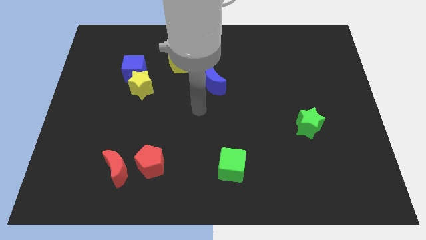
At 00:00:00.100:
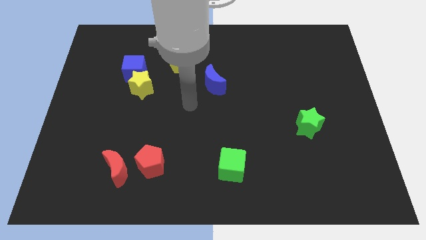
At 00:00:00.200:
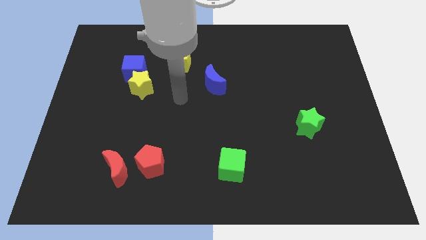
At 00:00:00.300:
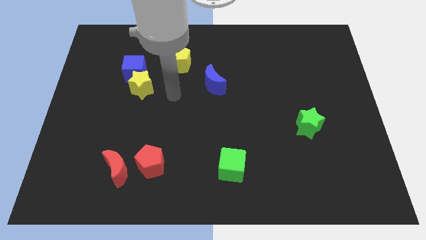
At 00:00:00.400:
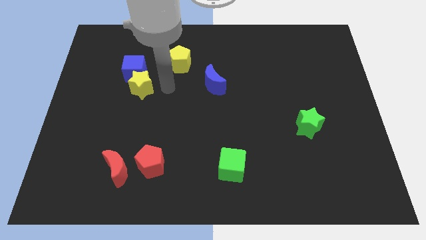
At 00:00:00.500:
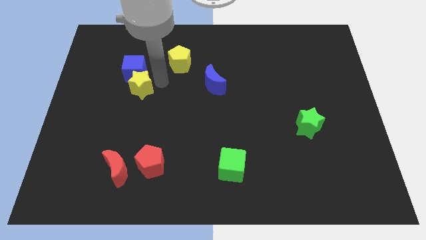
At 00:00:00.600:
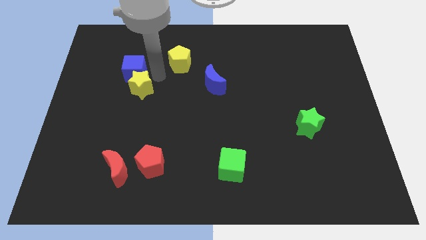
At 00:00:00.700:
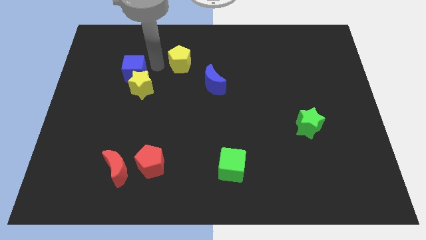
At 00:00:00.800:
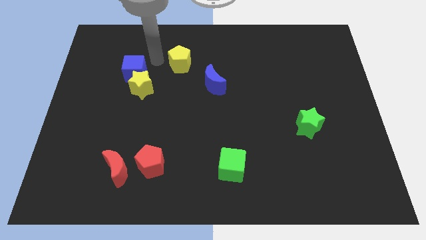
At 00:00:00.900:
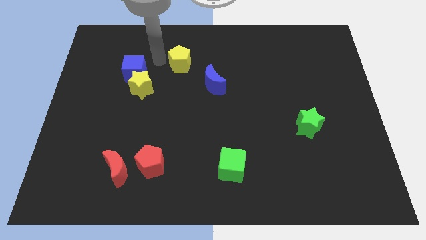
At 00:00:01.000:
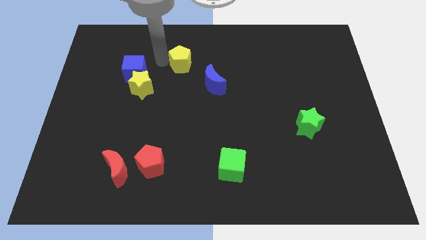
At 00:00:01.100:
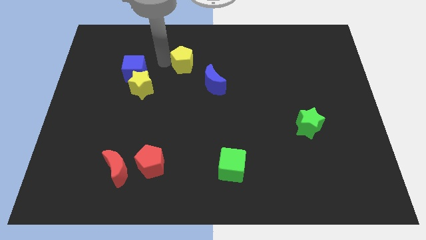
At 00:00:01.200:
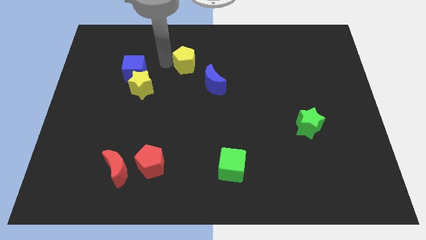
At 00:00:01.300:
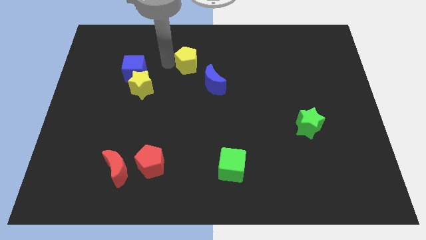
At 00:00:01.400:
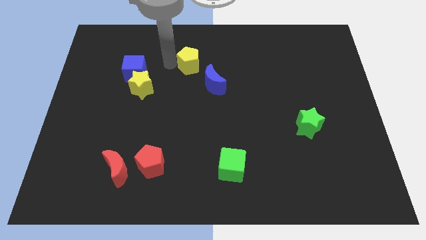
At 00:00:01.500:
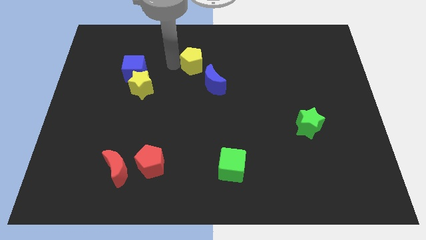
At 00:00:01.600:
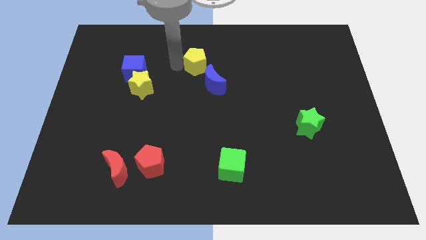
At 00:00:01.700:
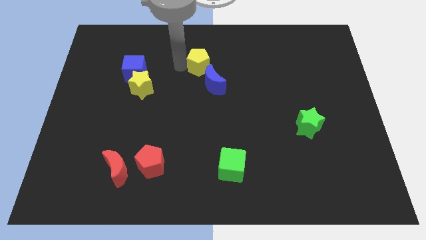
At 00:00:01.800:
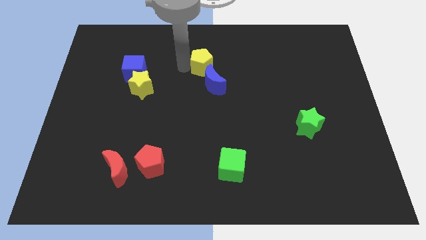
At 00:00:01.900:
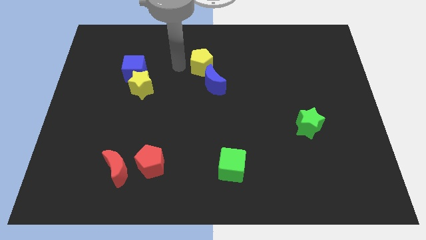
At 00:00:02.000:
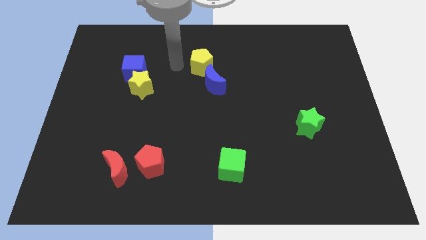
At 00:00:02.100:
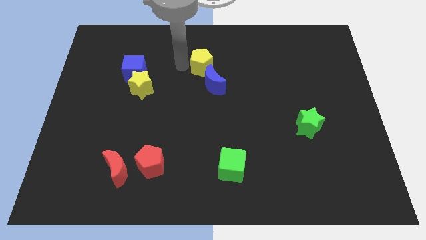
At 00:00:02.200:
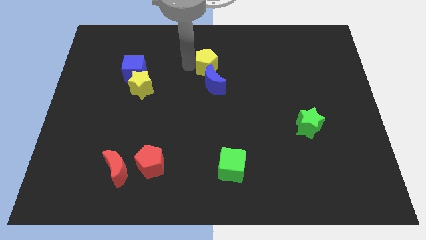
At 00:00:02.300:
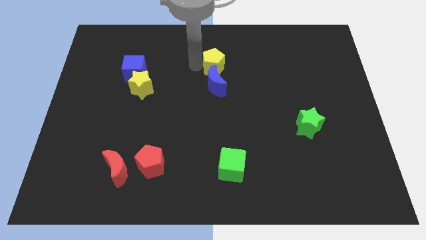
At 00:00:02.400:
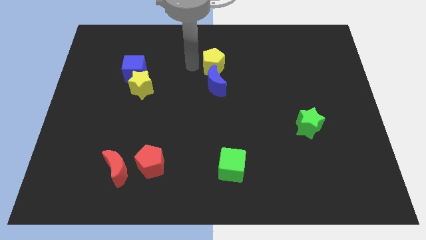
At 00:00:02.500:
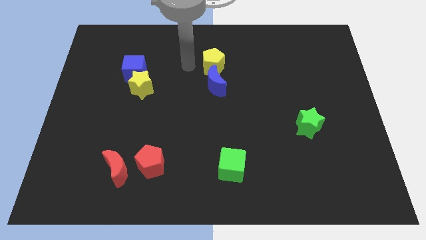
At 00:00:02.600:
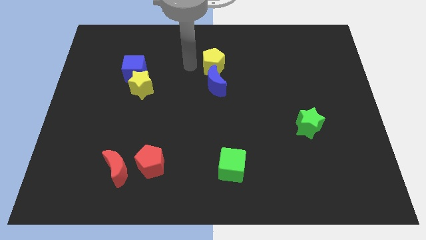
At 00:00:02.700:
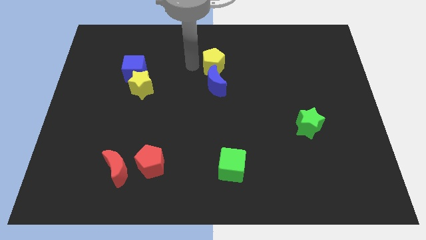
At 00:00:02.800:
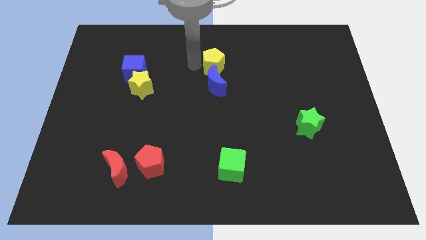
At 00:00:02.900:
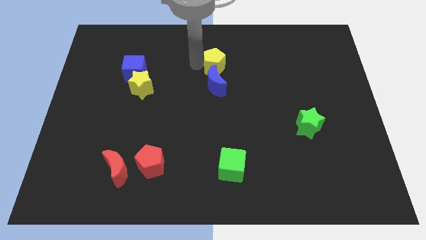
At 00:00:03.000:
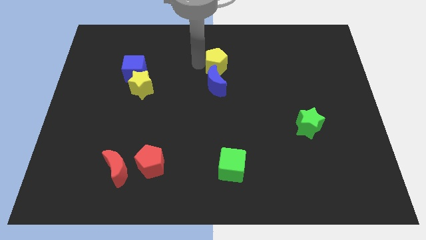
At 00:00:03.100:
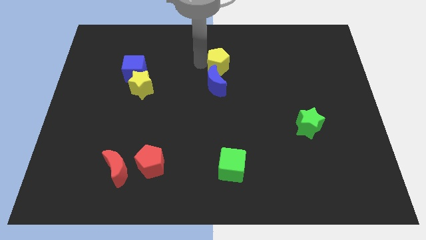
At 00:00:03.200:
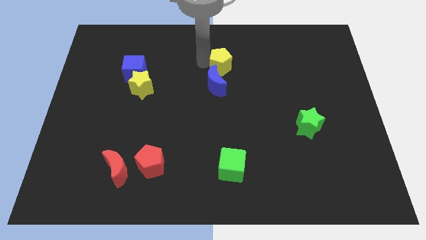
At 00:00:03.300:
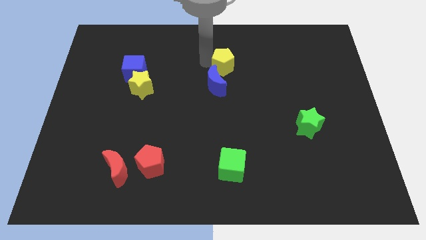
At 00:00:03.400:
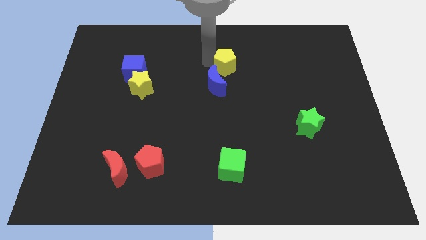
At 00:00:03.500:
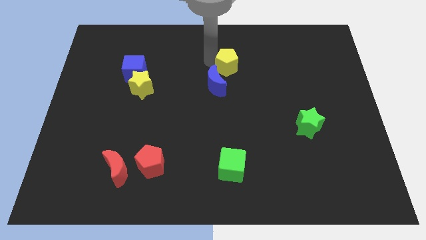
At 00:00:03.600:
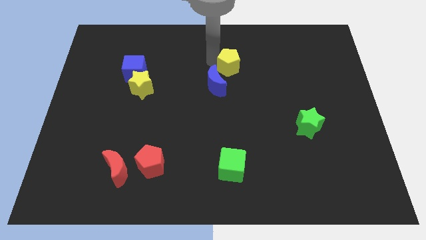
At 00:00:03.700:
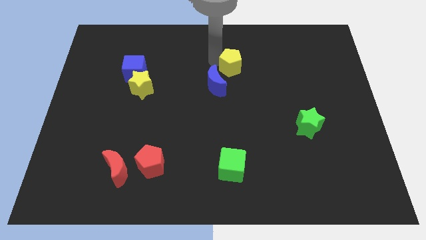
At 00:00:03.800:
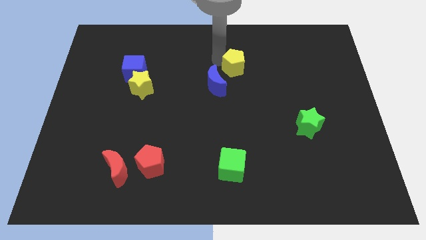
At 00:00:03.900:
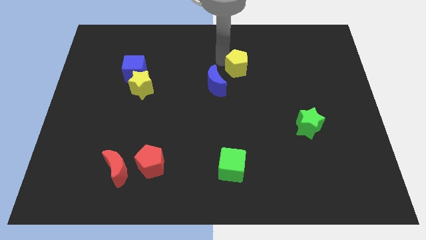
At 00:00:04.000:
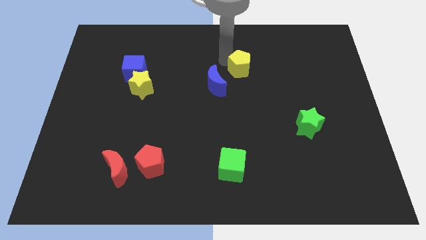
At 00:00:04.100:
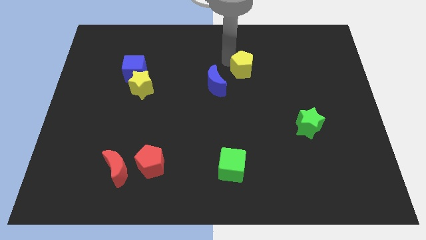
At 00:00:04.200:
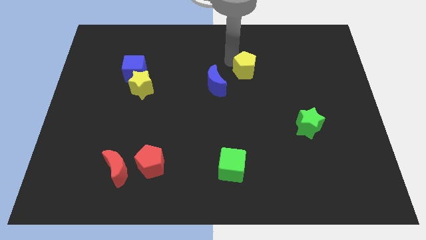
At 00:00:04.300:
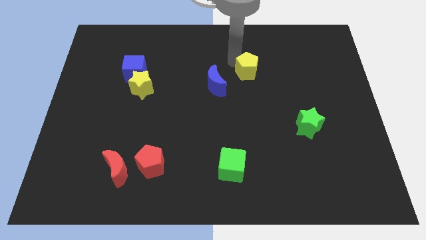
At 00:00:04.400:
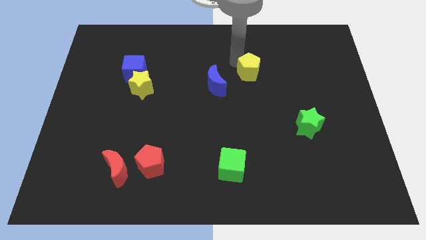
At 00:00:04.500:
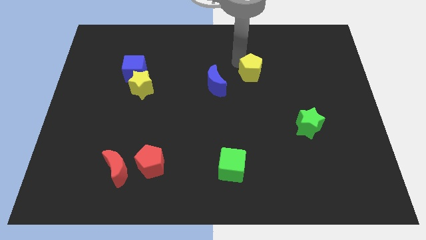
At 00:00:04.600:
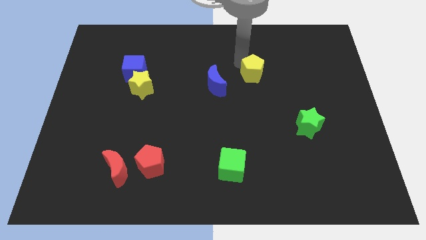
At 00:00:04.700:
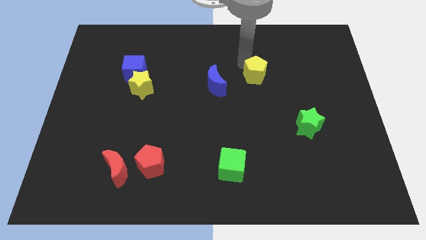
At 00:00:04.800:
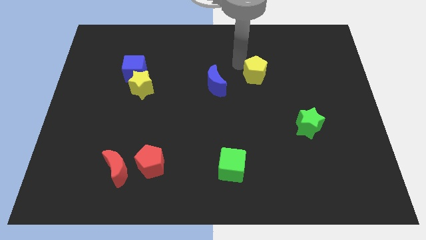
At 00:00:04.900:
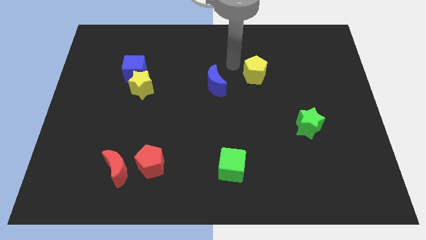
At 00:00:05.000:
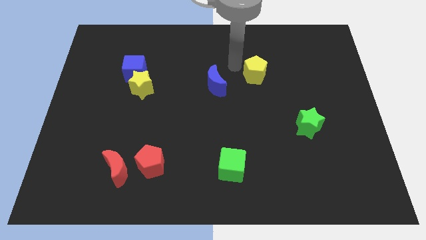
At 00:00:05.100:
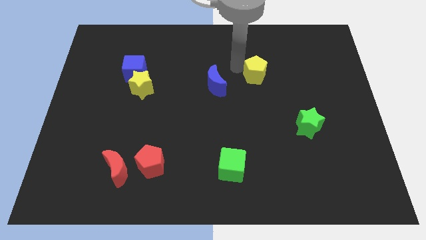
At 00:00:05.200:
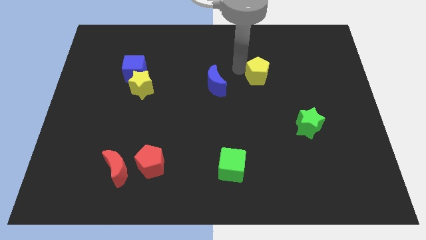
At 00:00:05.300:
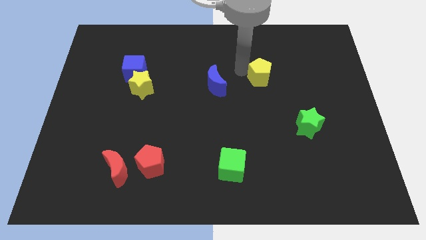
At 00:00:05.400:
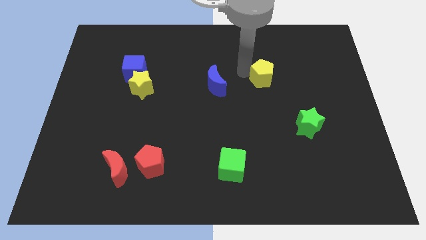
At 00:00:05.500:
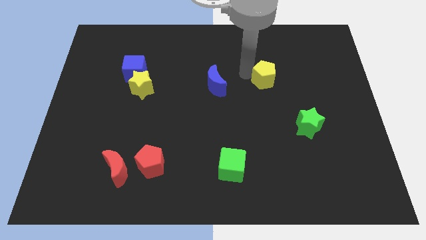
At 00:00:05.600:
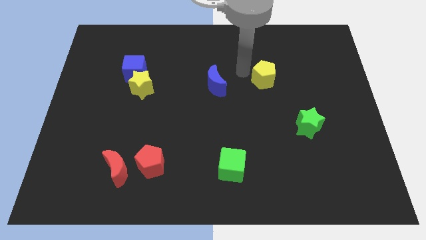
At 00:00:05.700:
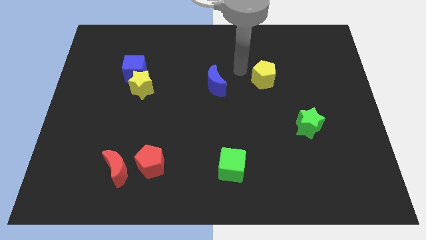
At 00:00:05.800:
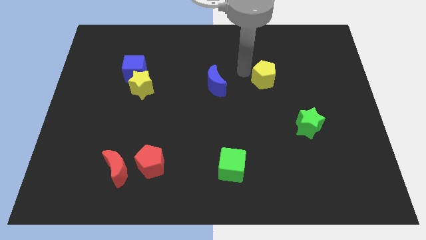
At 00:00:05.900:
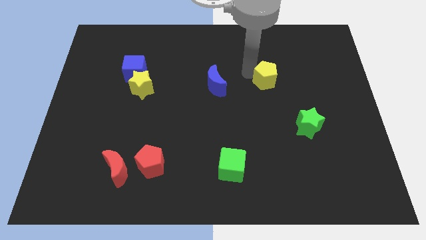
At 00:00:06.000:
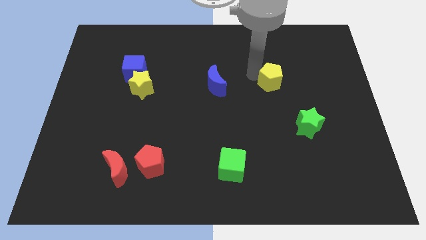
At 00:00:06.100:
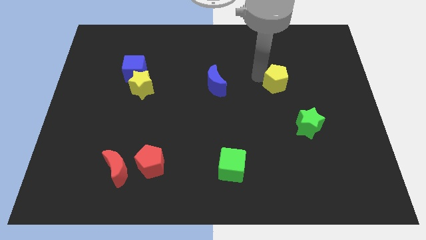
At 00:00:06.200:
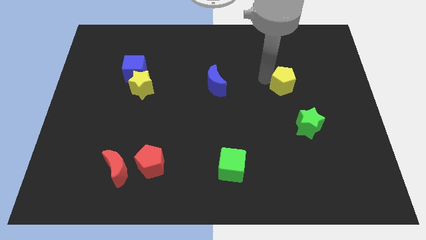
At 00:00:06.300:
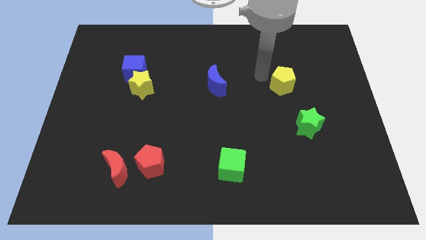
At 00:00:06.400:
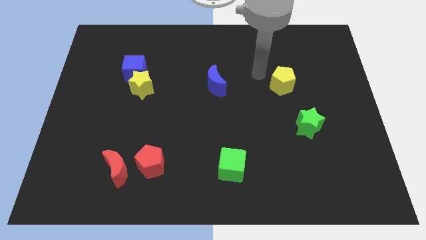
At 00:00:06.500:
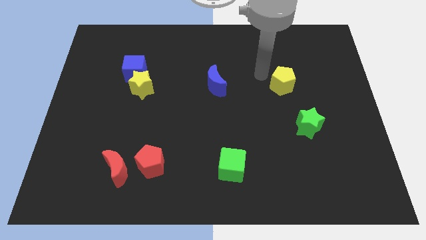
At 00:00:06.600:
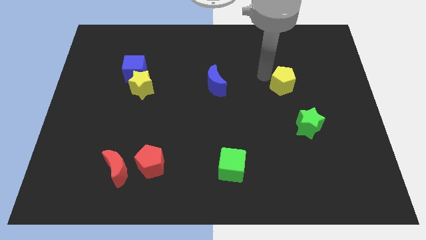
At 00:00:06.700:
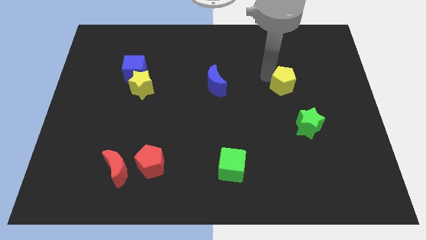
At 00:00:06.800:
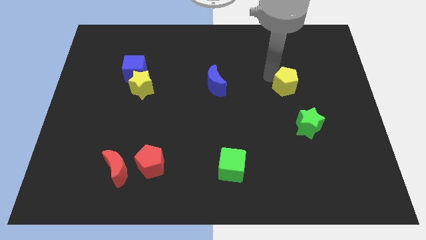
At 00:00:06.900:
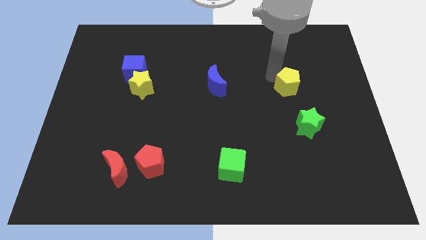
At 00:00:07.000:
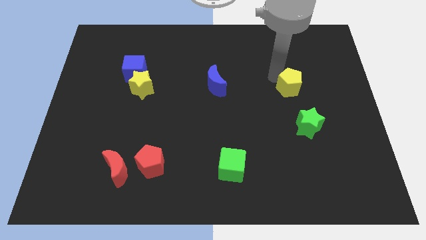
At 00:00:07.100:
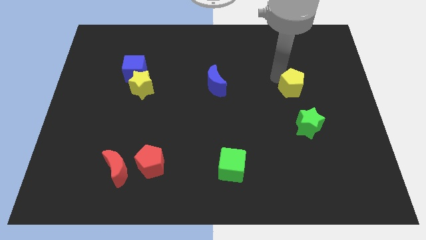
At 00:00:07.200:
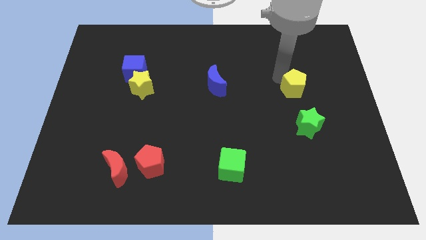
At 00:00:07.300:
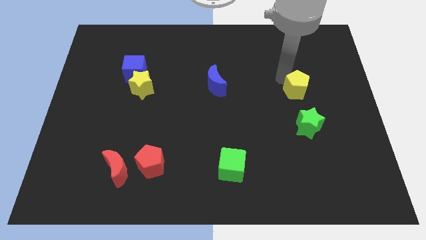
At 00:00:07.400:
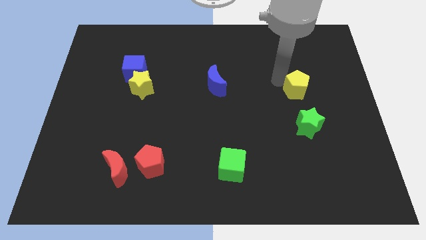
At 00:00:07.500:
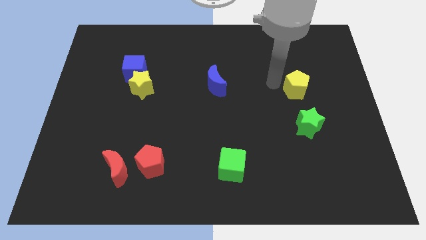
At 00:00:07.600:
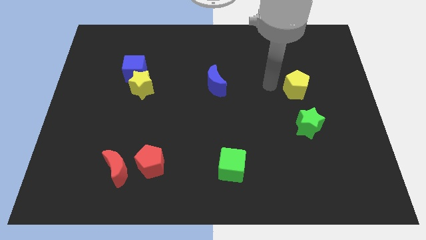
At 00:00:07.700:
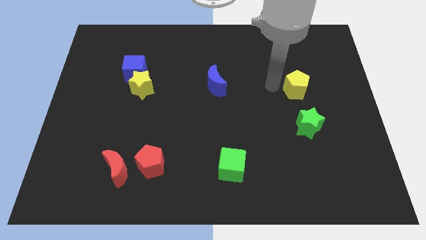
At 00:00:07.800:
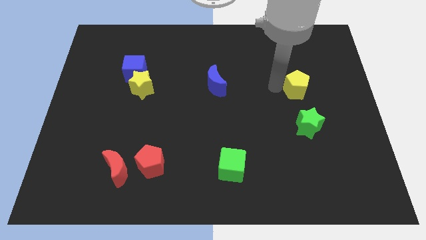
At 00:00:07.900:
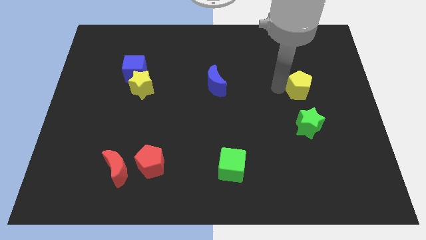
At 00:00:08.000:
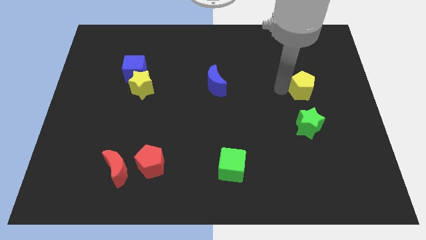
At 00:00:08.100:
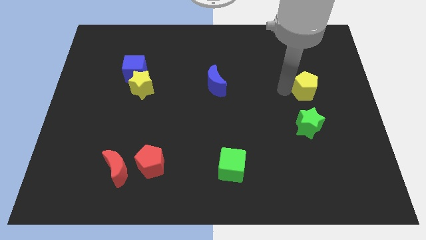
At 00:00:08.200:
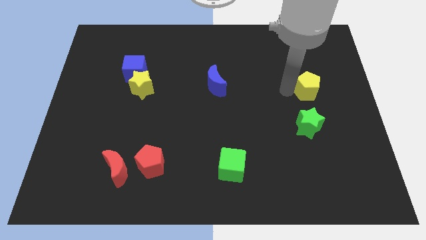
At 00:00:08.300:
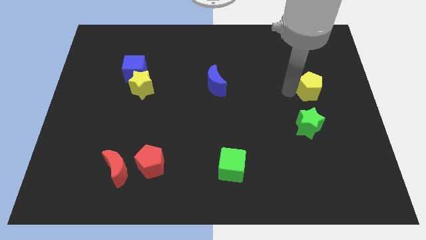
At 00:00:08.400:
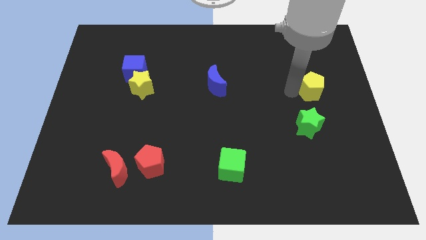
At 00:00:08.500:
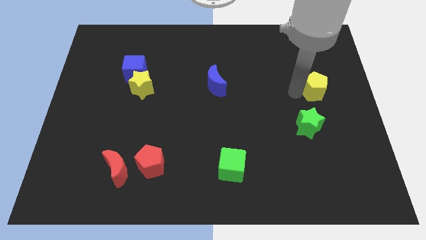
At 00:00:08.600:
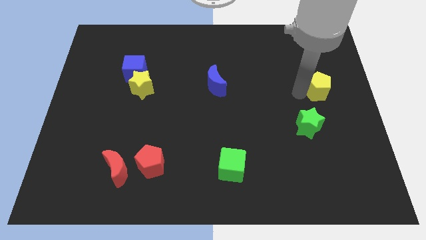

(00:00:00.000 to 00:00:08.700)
push the yellow pentagon to the right side
